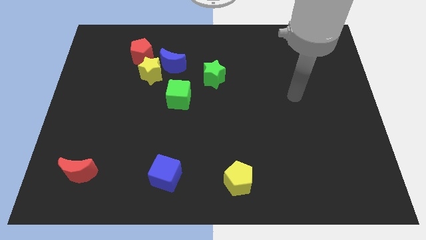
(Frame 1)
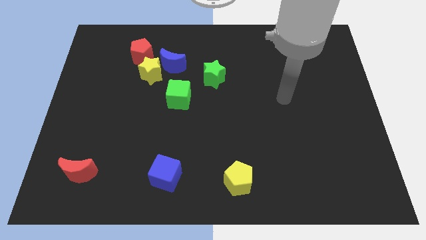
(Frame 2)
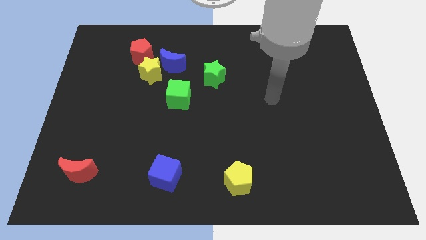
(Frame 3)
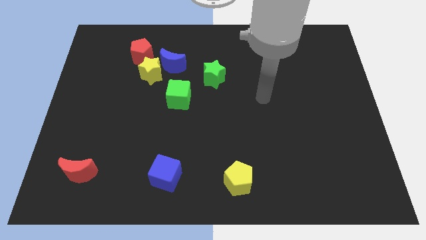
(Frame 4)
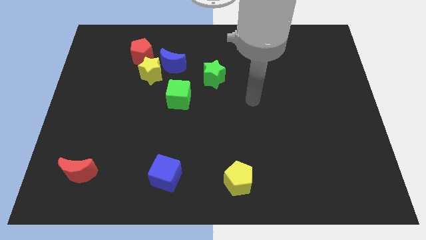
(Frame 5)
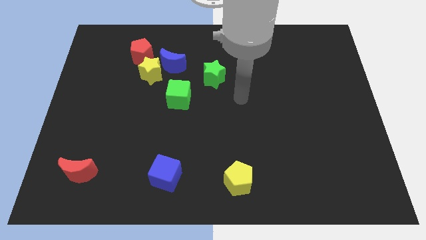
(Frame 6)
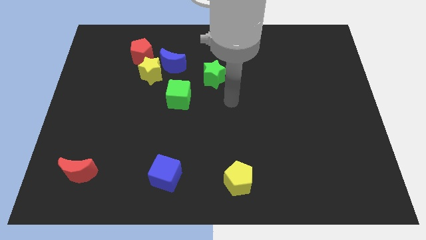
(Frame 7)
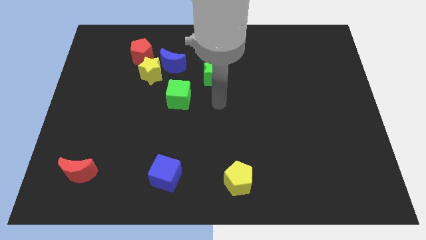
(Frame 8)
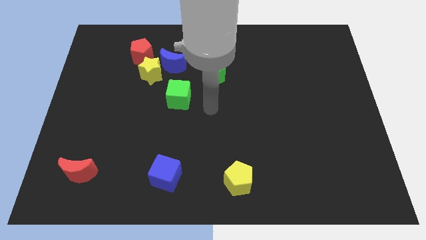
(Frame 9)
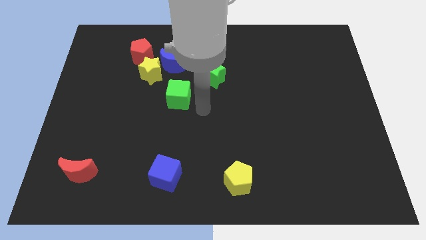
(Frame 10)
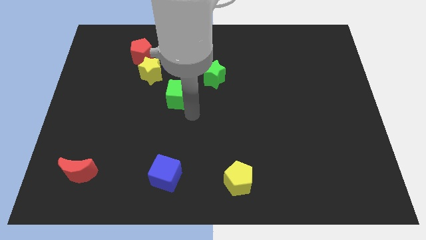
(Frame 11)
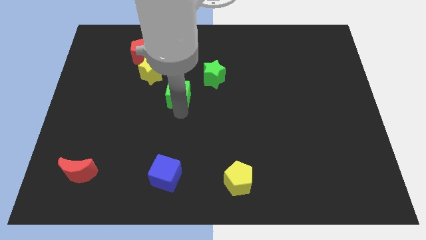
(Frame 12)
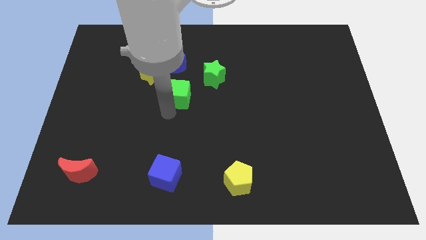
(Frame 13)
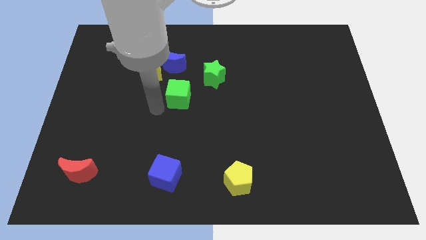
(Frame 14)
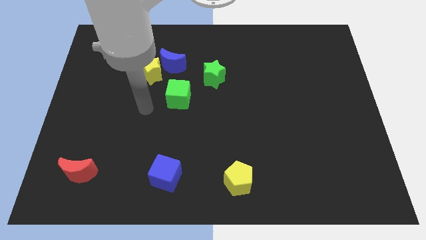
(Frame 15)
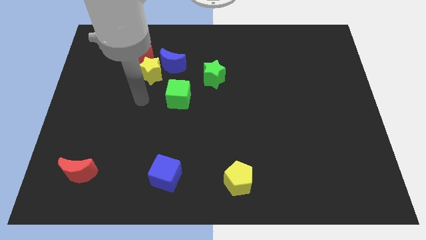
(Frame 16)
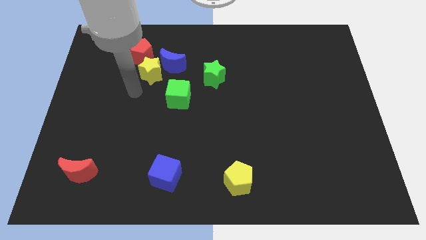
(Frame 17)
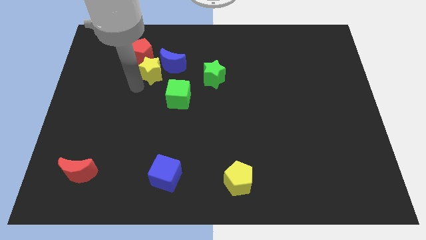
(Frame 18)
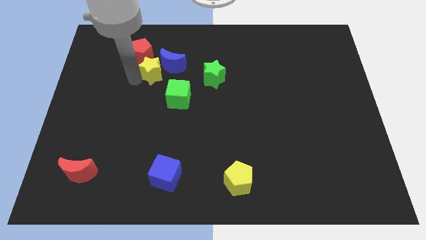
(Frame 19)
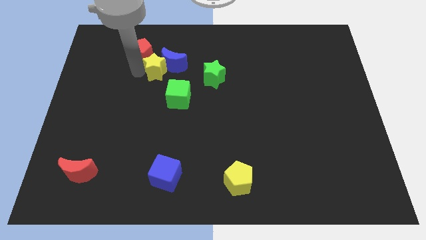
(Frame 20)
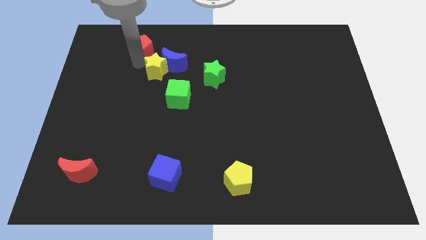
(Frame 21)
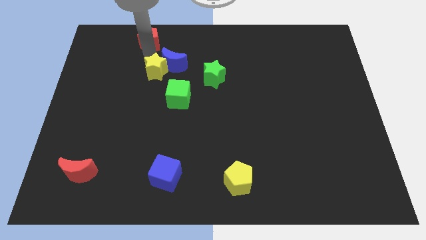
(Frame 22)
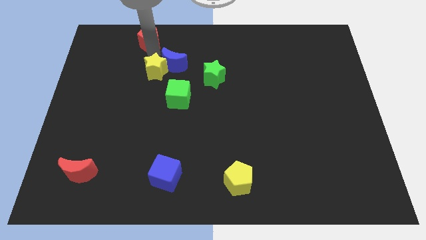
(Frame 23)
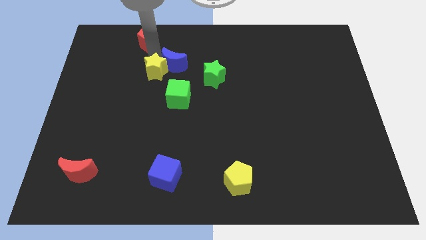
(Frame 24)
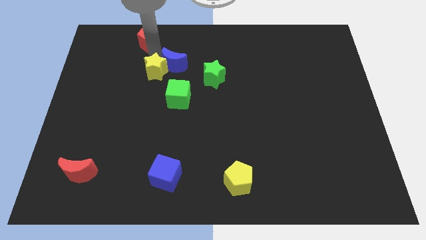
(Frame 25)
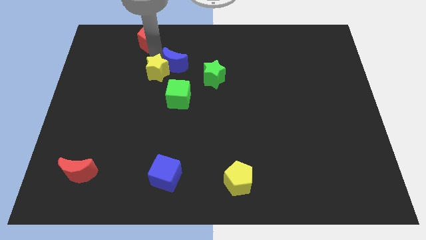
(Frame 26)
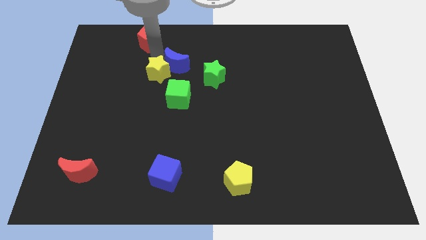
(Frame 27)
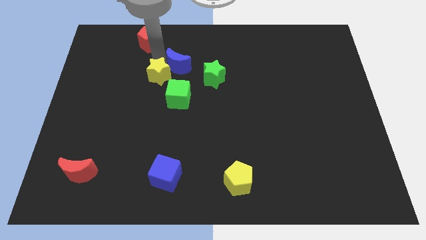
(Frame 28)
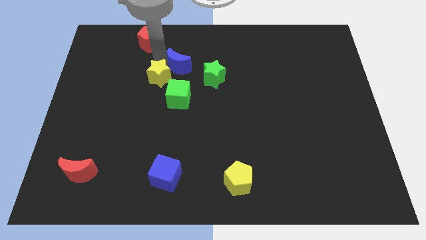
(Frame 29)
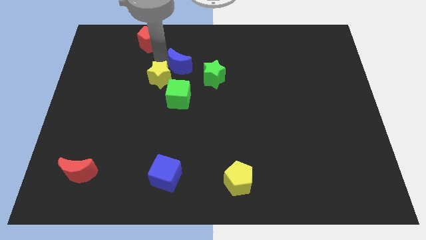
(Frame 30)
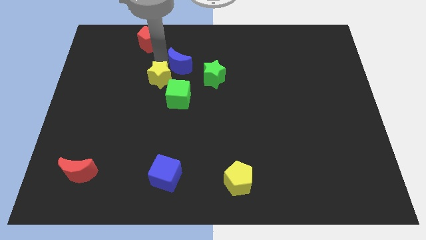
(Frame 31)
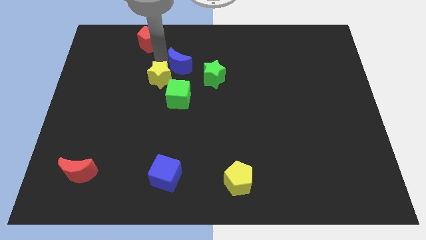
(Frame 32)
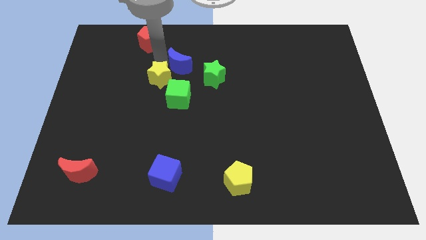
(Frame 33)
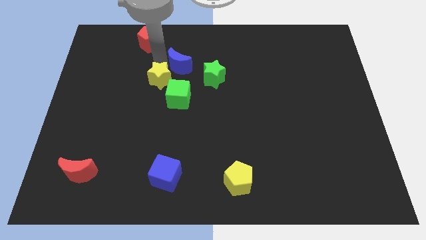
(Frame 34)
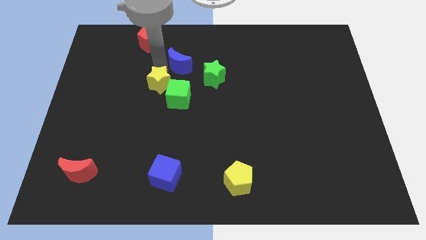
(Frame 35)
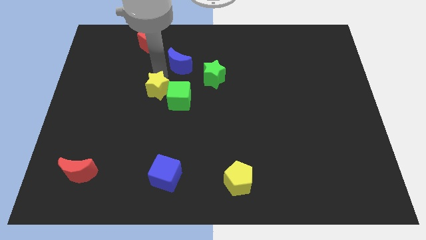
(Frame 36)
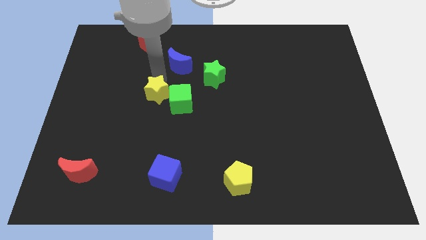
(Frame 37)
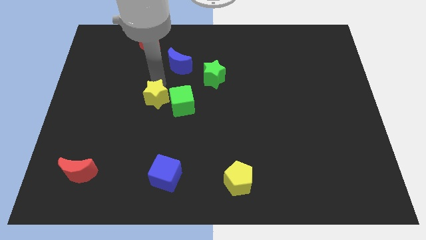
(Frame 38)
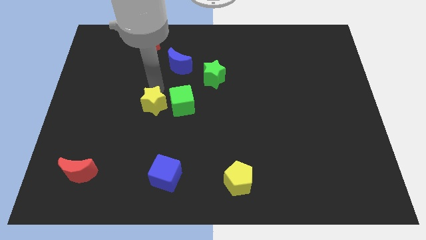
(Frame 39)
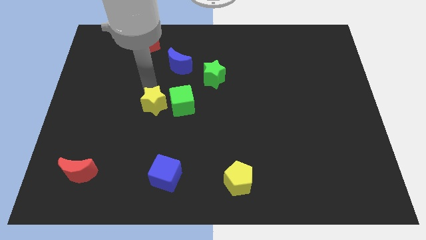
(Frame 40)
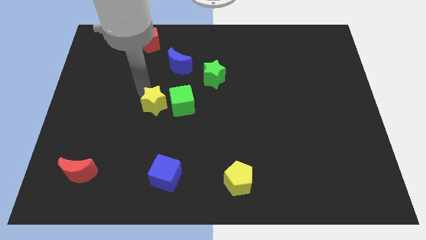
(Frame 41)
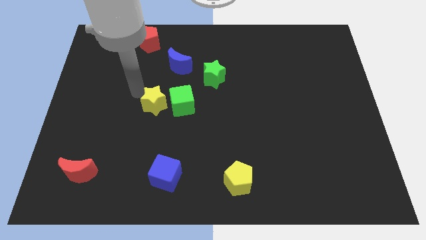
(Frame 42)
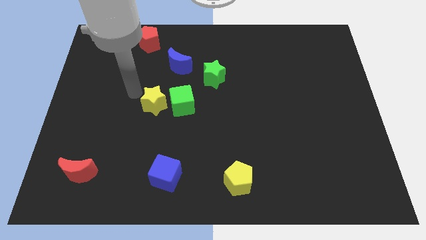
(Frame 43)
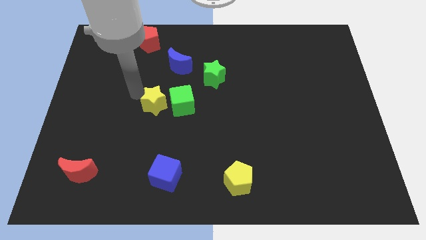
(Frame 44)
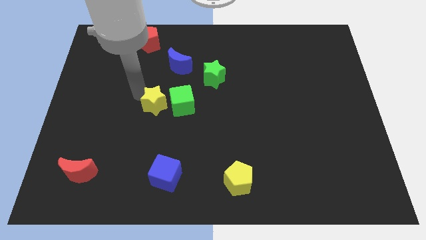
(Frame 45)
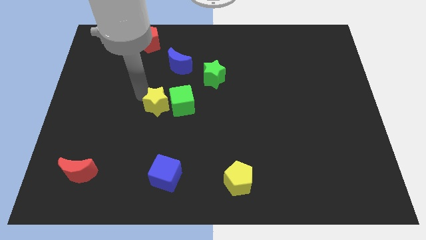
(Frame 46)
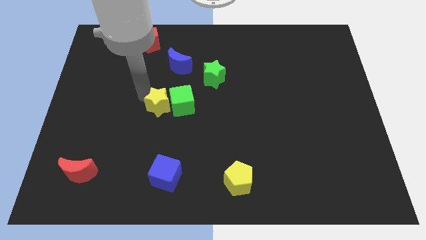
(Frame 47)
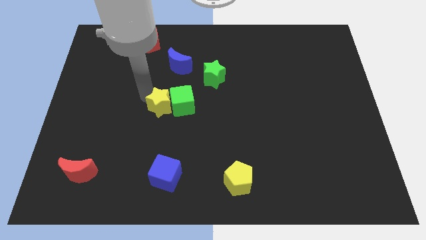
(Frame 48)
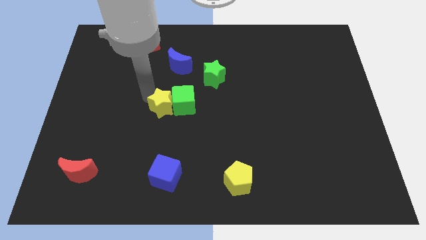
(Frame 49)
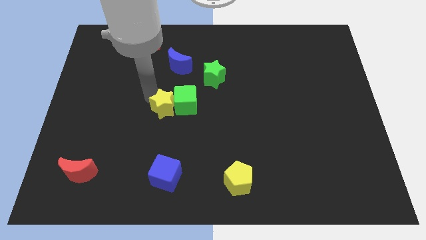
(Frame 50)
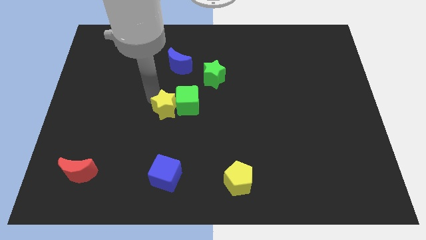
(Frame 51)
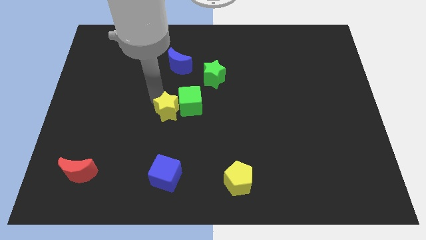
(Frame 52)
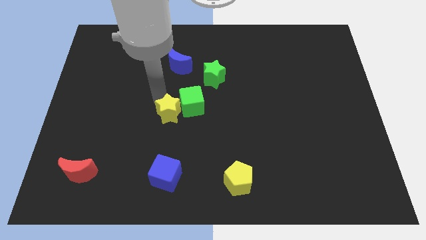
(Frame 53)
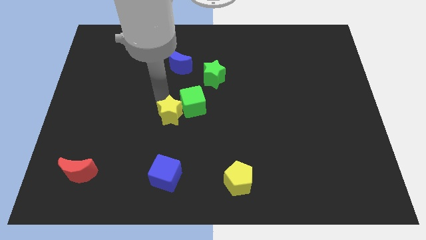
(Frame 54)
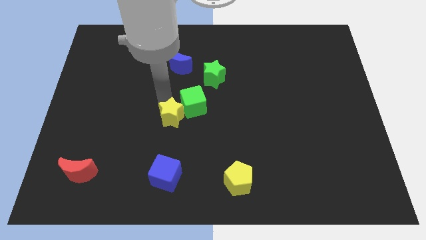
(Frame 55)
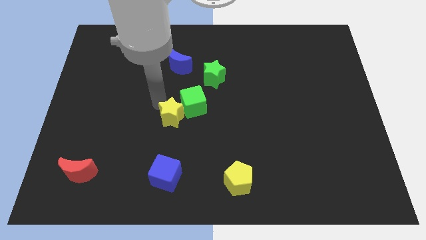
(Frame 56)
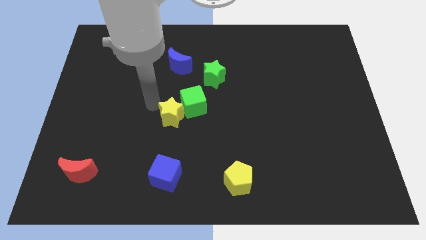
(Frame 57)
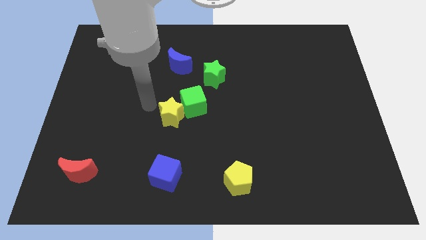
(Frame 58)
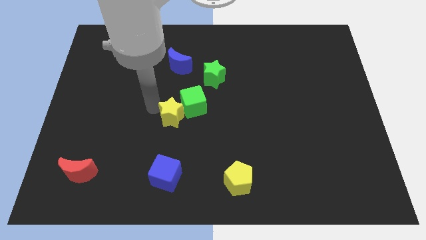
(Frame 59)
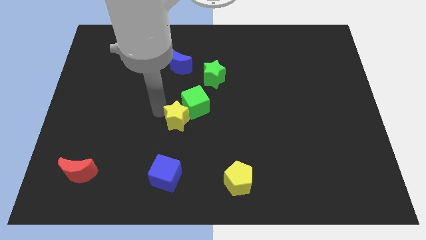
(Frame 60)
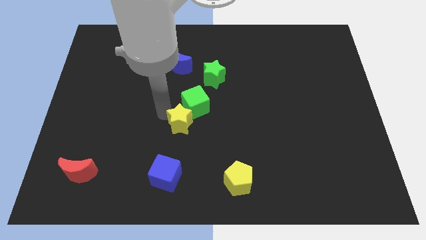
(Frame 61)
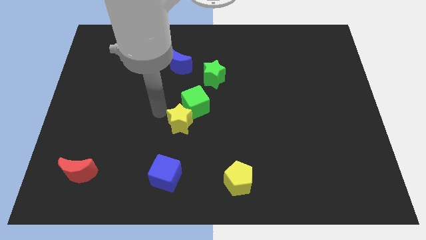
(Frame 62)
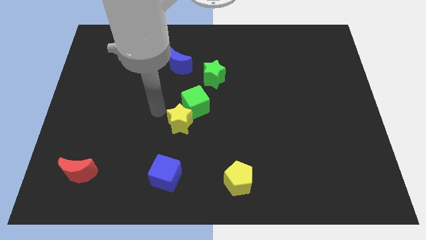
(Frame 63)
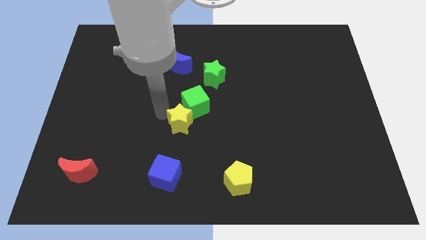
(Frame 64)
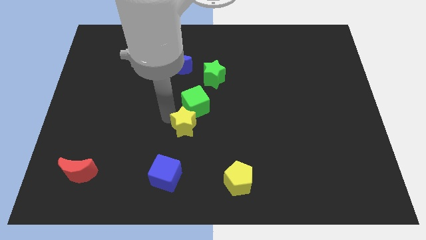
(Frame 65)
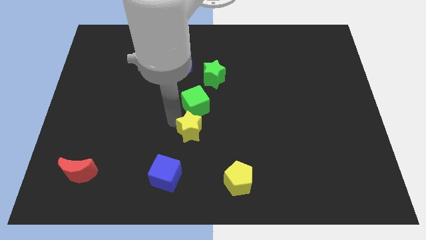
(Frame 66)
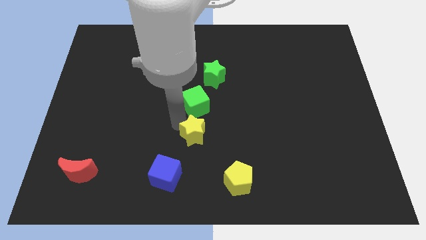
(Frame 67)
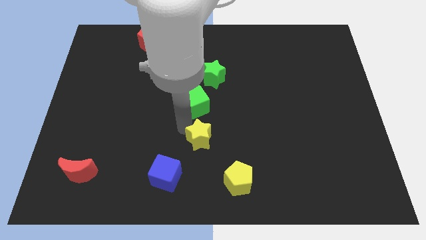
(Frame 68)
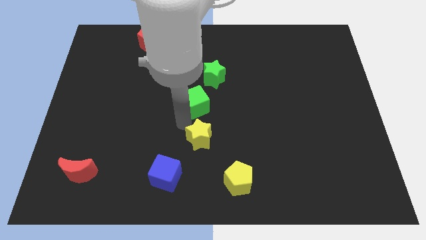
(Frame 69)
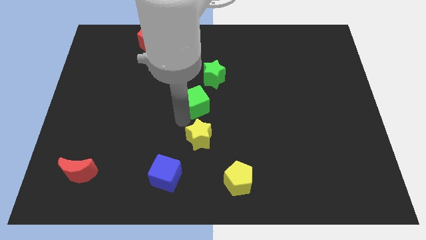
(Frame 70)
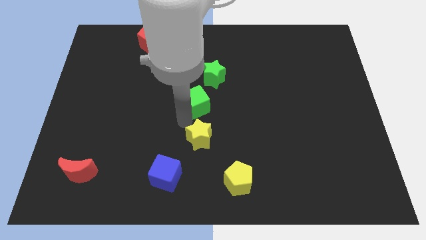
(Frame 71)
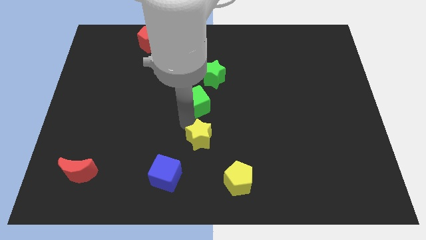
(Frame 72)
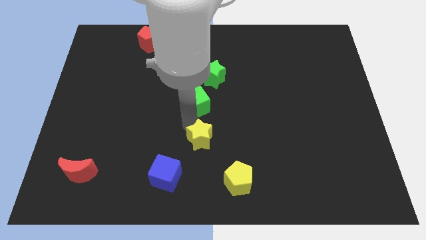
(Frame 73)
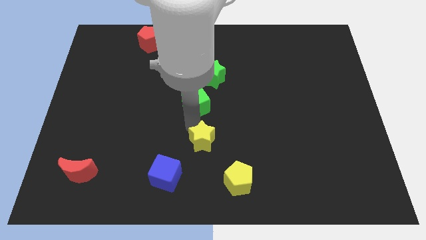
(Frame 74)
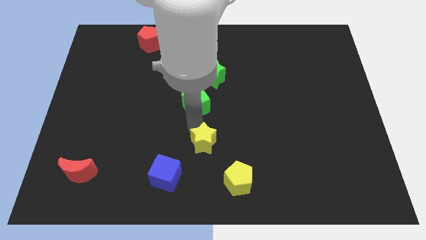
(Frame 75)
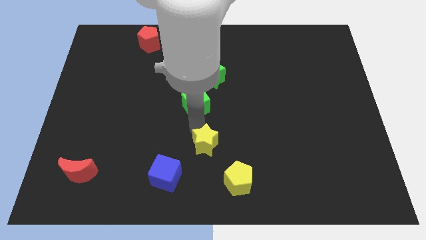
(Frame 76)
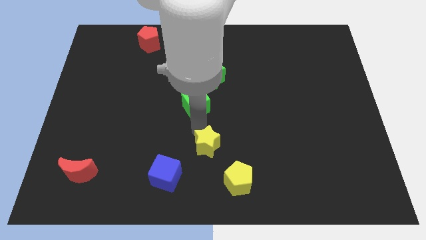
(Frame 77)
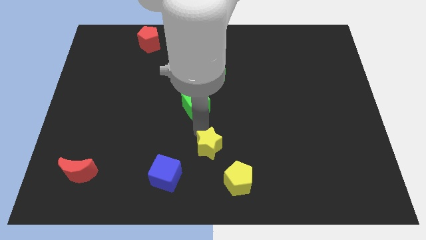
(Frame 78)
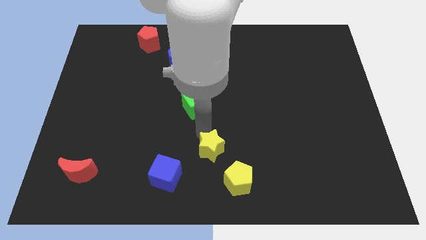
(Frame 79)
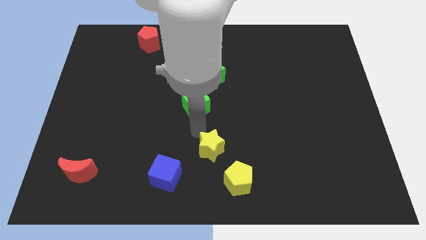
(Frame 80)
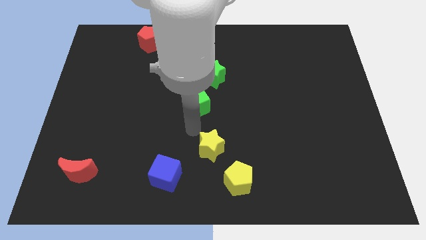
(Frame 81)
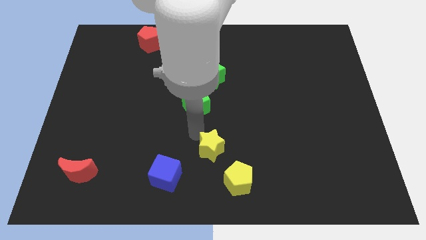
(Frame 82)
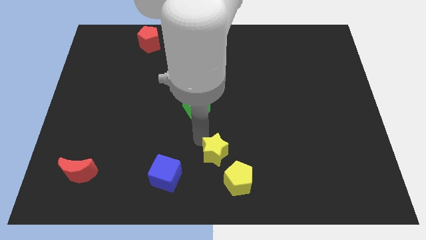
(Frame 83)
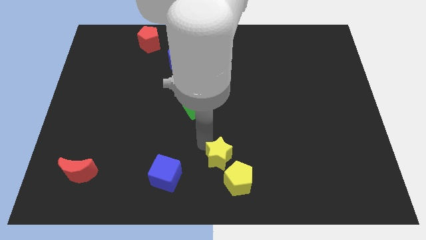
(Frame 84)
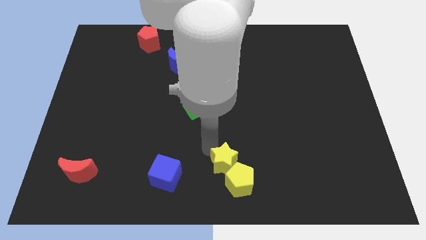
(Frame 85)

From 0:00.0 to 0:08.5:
move the yellow star towards the yellow pentagon
